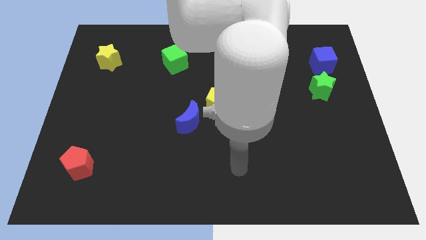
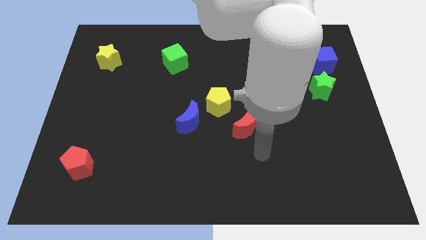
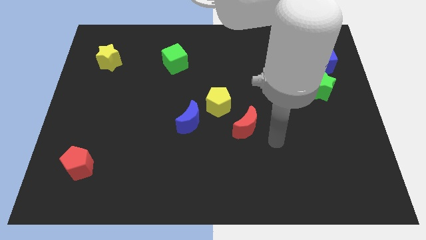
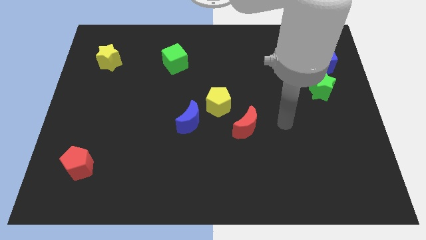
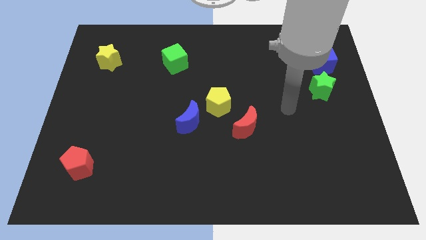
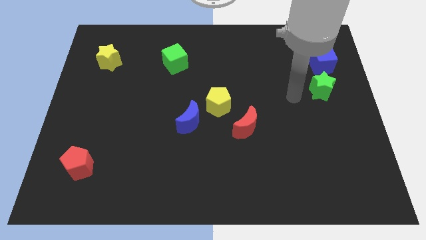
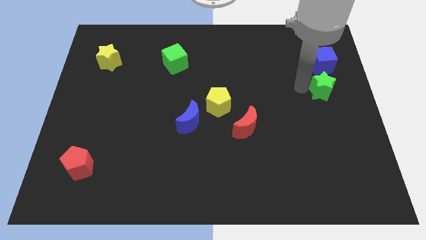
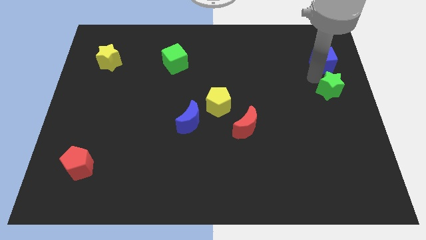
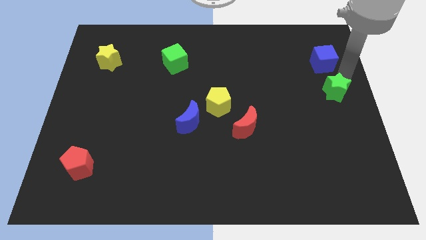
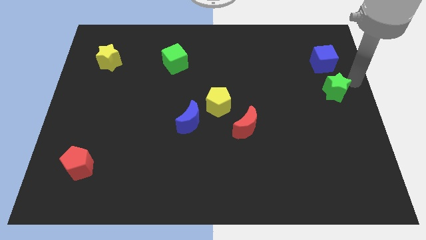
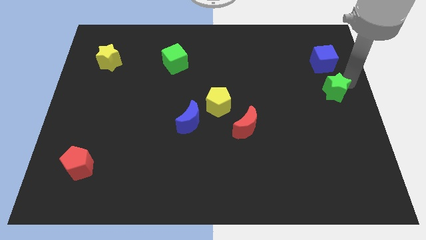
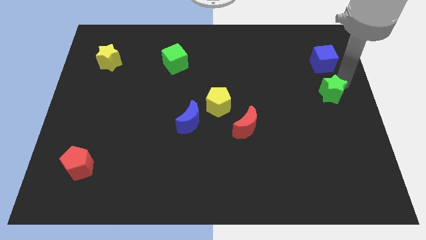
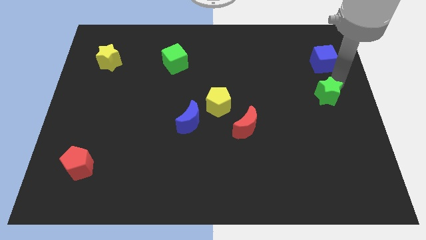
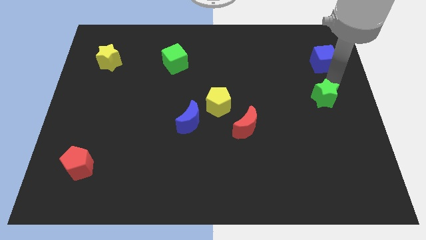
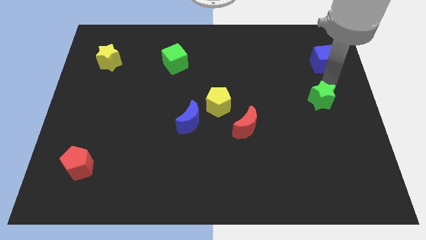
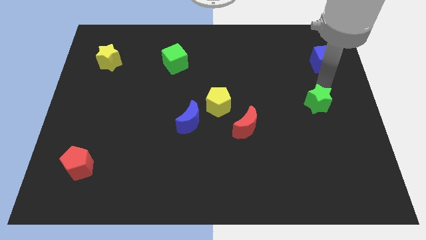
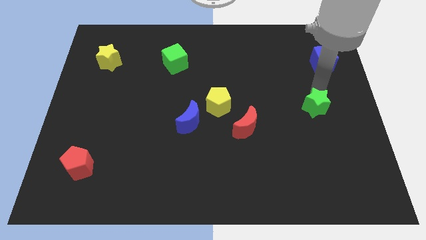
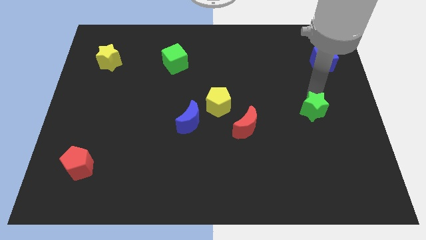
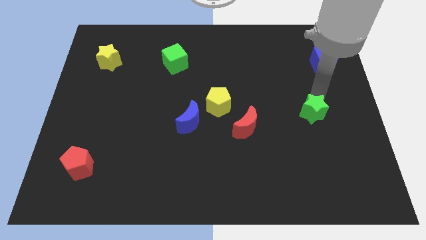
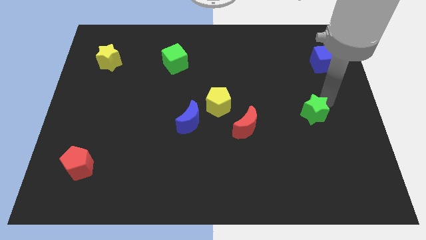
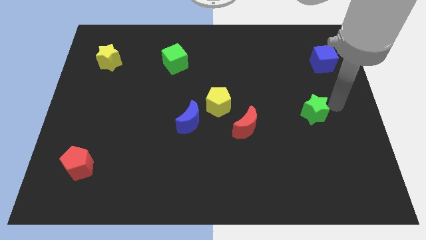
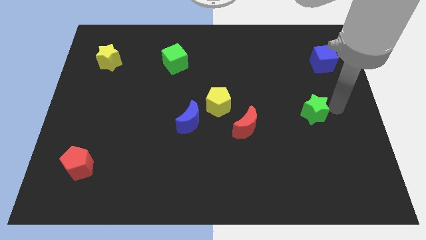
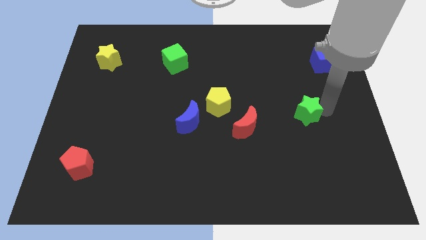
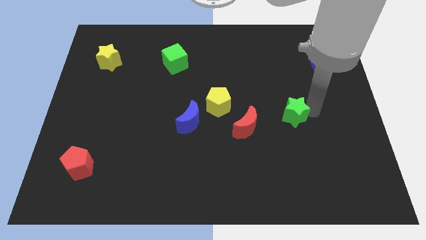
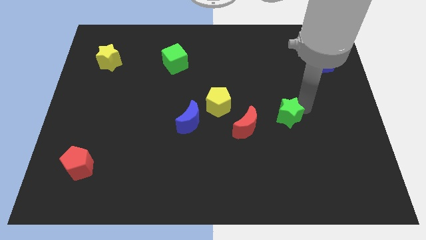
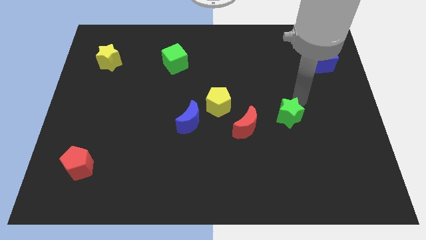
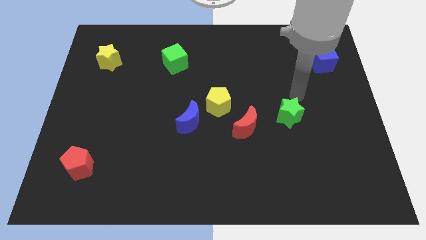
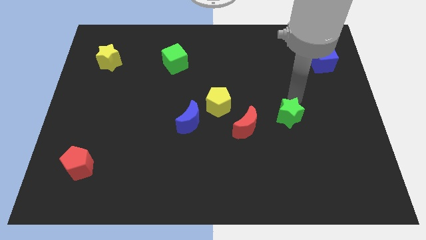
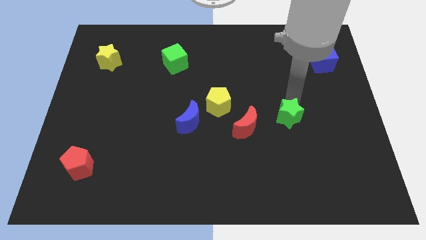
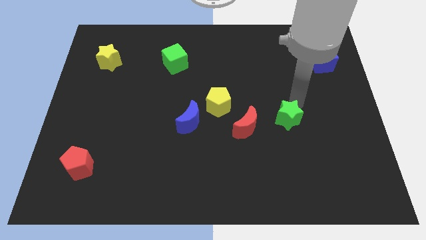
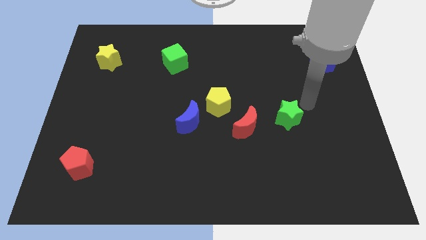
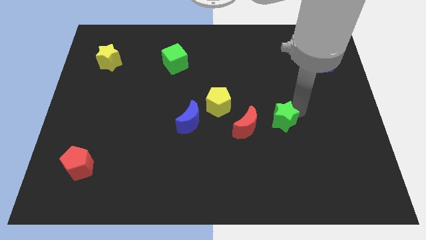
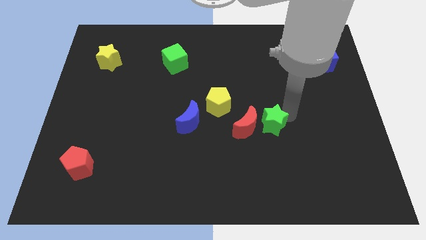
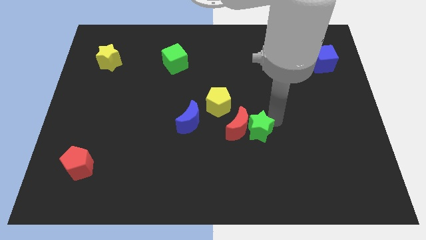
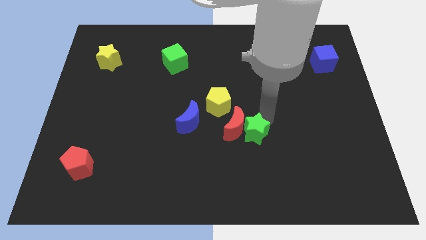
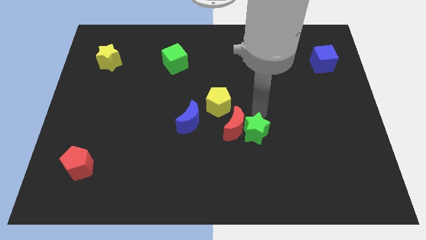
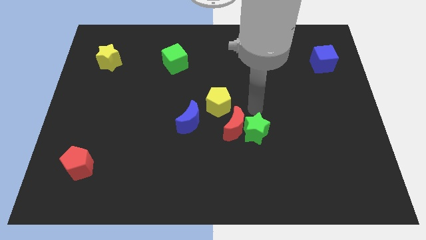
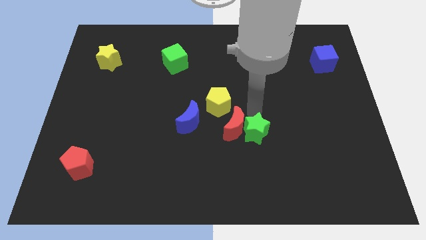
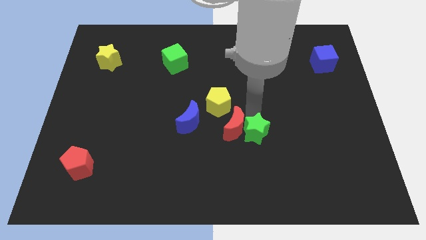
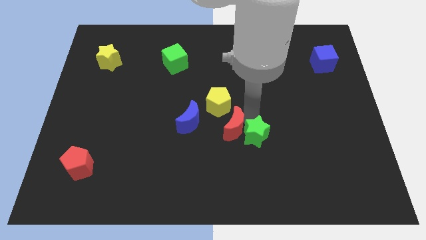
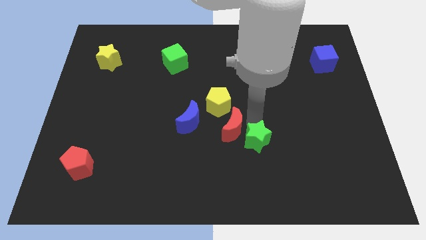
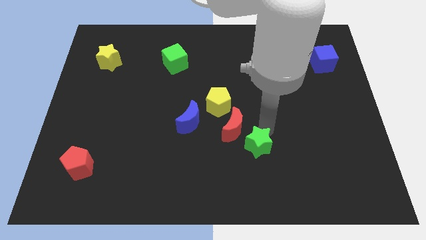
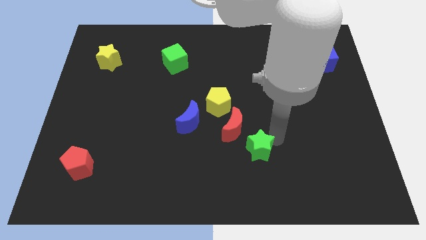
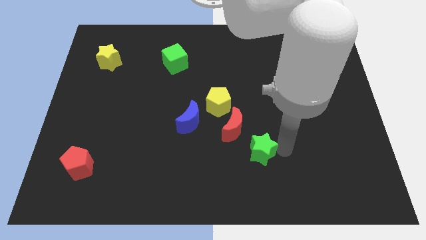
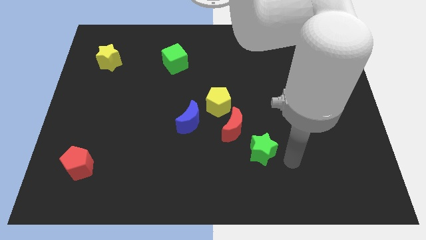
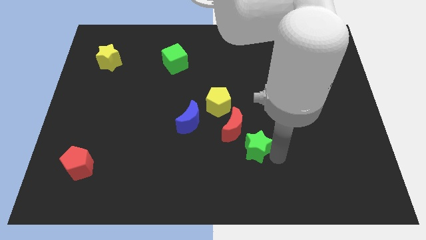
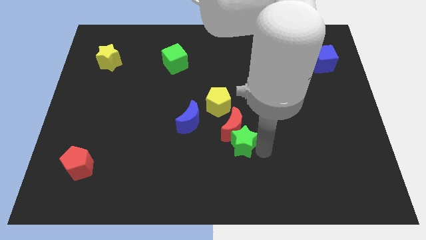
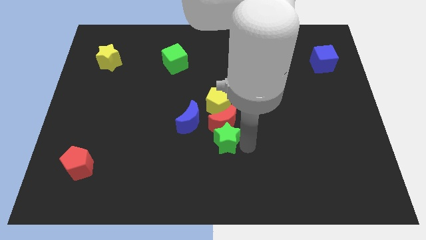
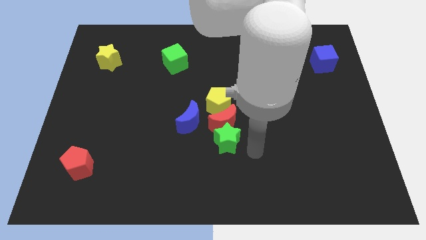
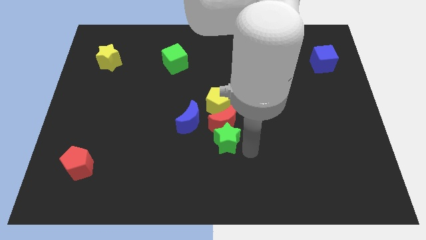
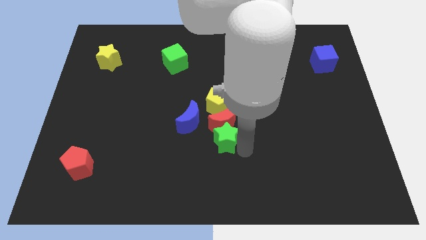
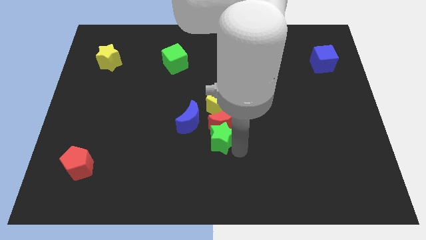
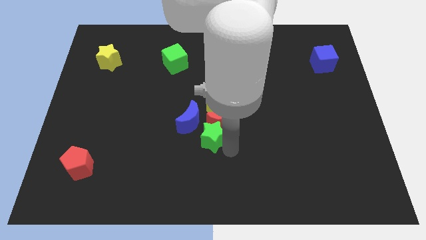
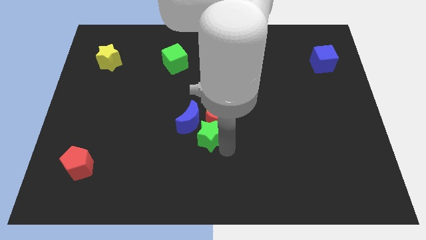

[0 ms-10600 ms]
put the green star close to the blue moon

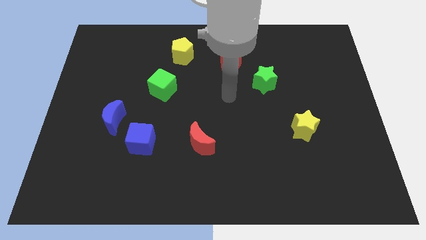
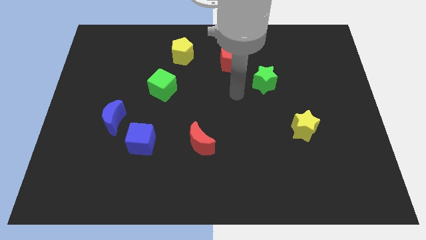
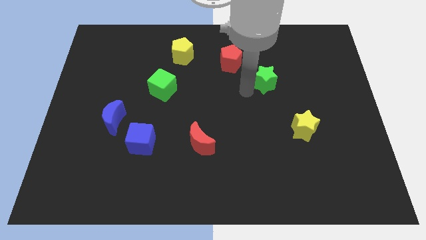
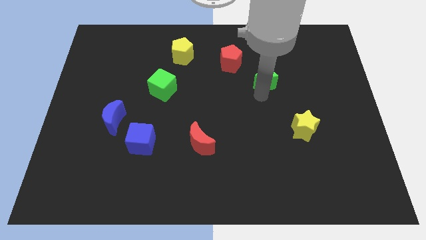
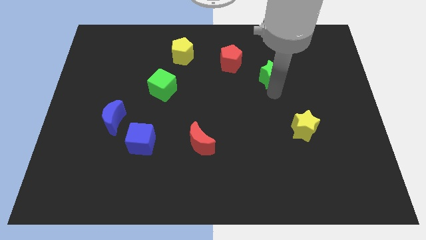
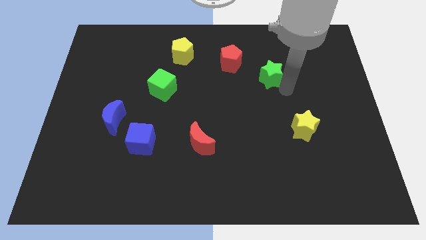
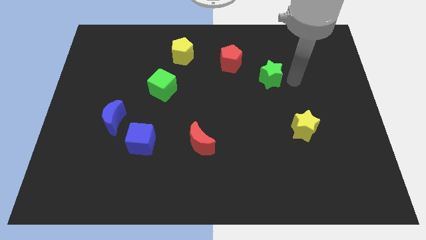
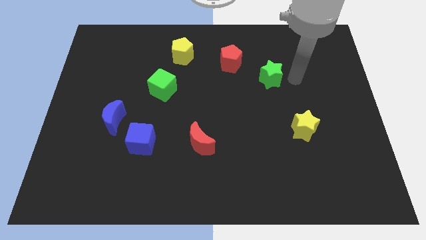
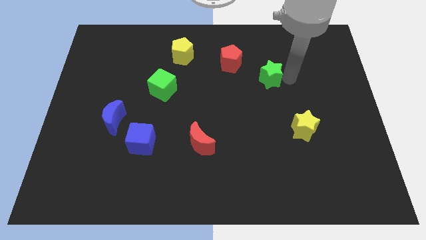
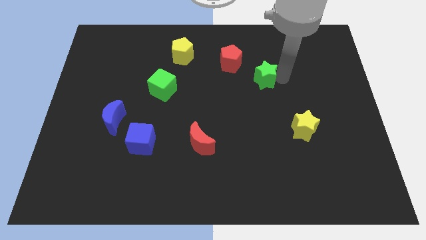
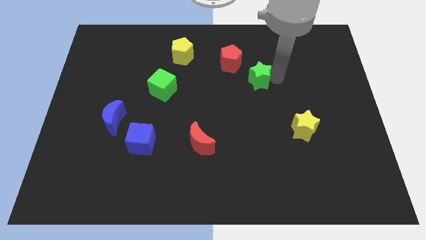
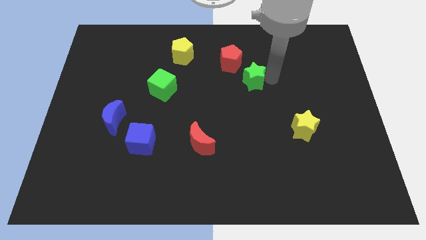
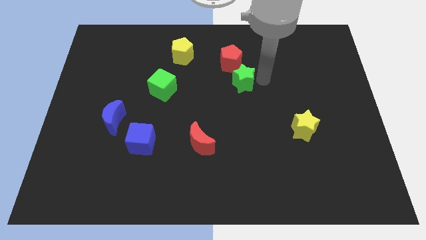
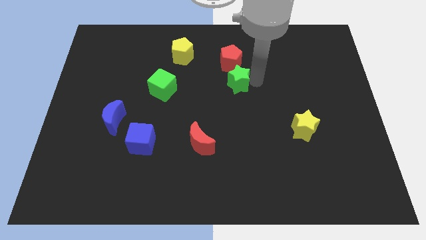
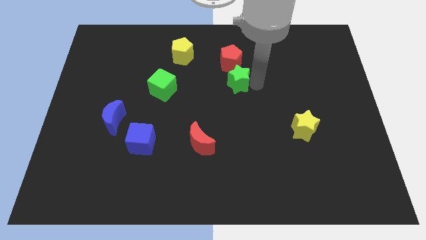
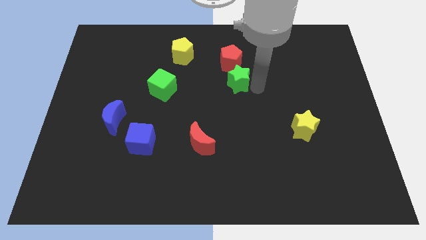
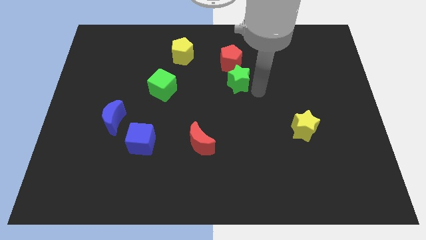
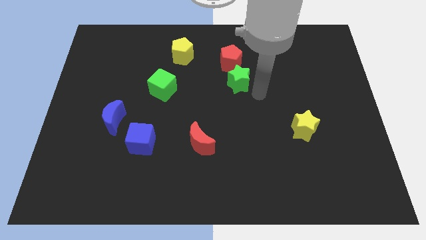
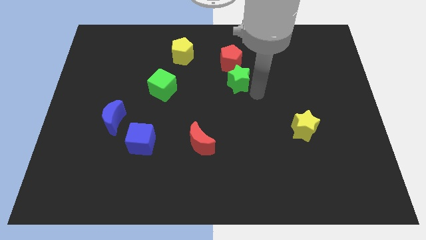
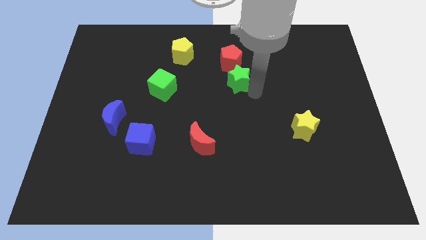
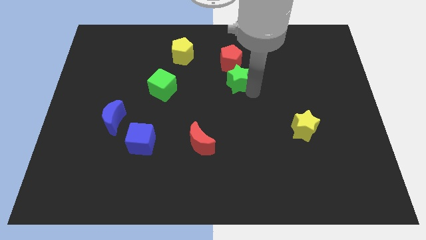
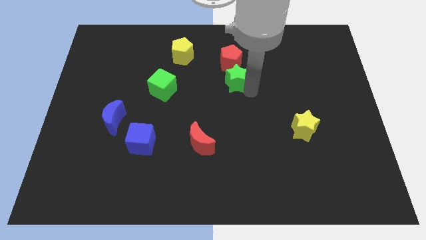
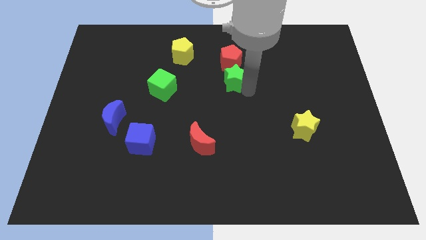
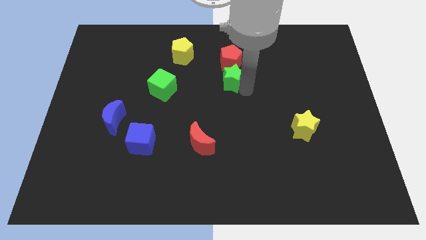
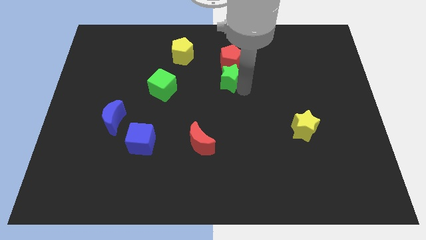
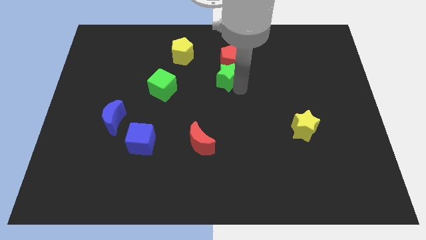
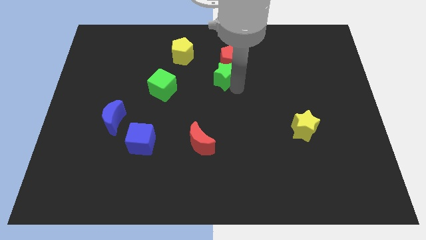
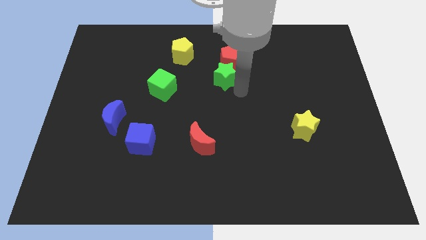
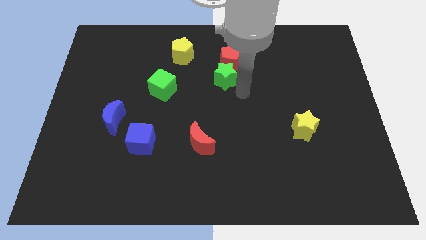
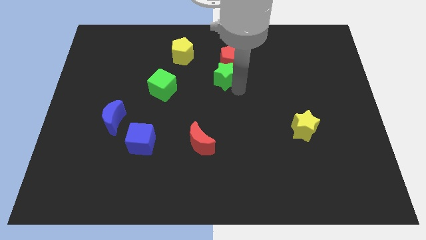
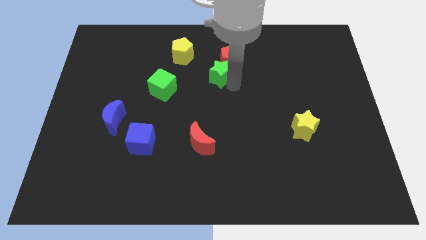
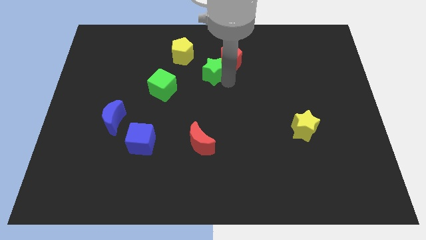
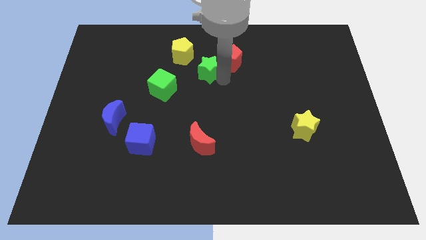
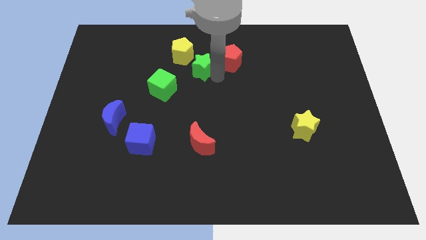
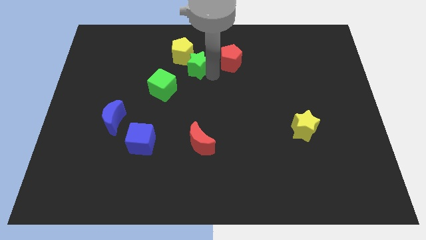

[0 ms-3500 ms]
put the green star towards the yellow pentagon
